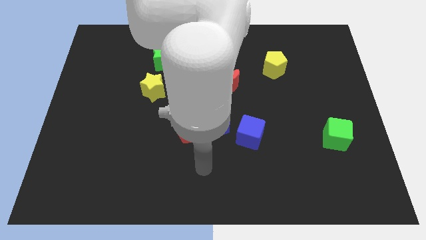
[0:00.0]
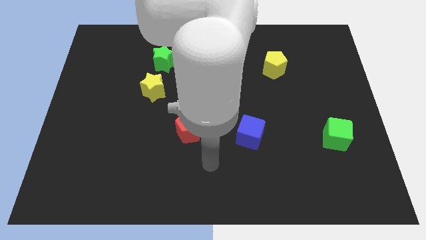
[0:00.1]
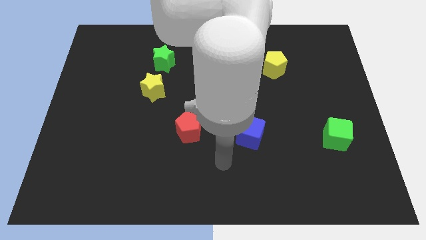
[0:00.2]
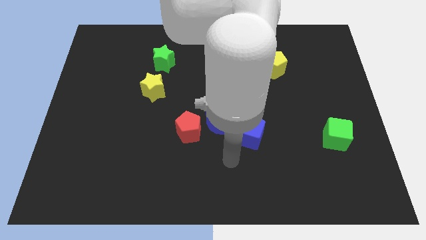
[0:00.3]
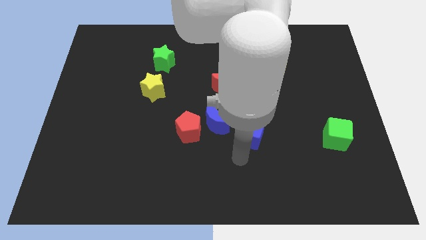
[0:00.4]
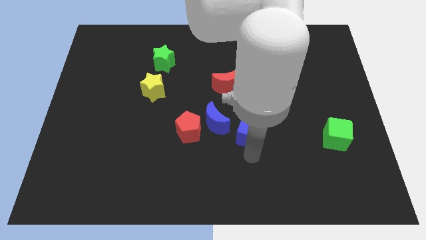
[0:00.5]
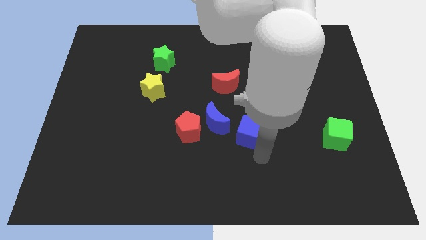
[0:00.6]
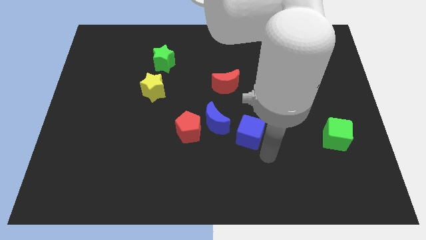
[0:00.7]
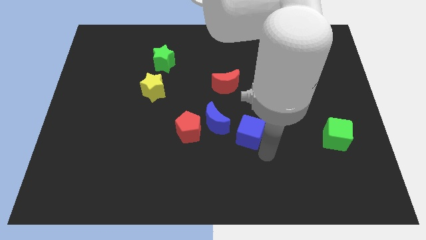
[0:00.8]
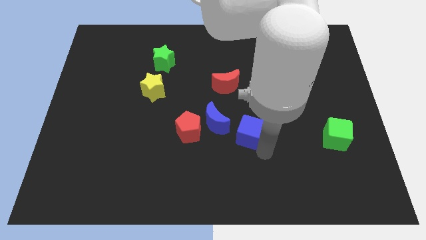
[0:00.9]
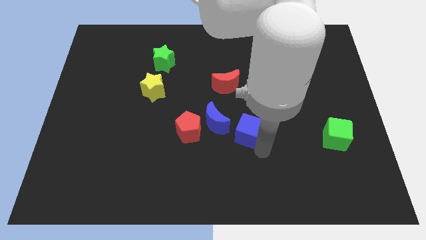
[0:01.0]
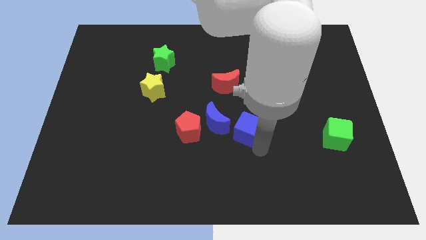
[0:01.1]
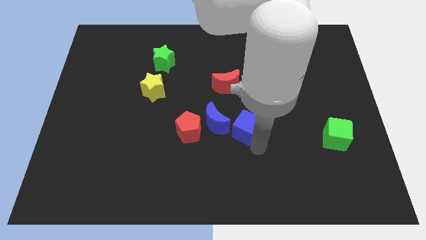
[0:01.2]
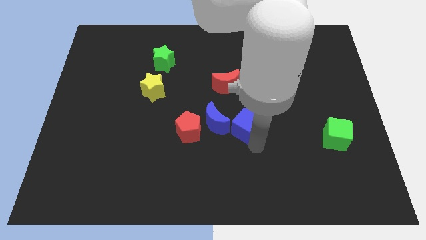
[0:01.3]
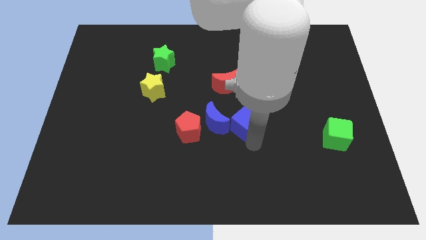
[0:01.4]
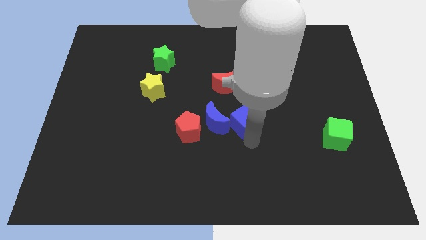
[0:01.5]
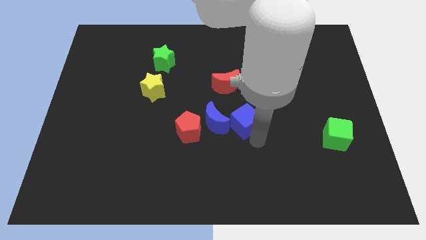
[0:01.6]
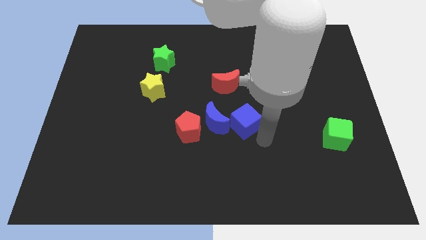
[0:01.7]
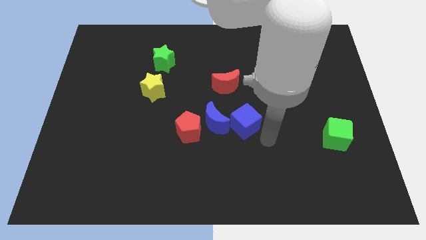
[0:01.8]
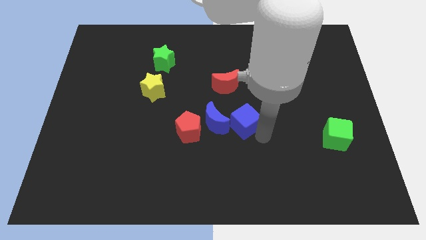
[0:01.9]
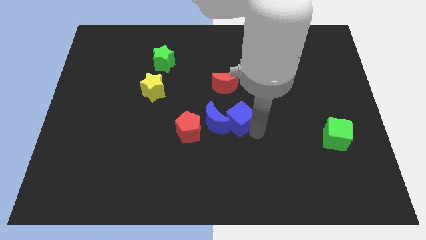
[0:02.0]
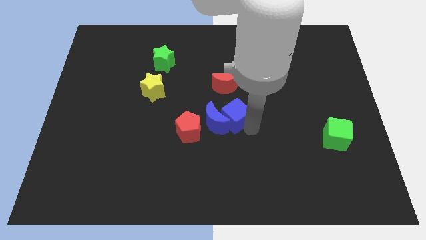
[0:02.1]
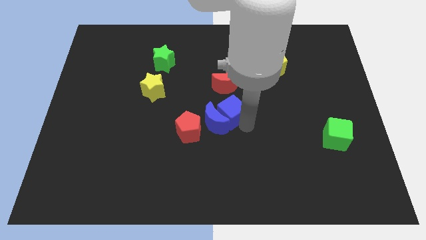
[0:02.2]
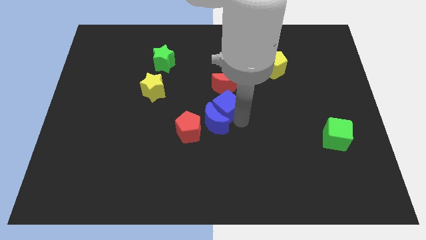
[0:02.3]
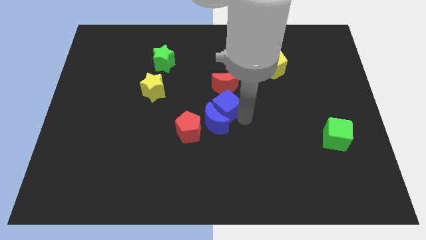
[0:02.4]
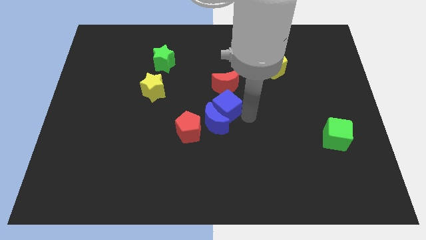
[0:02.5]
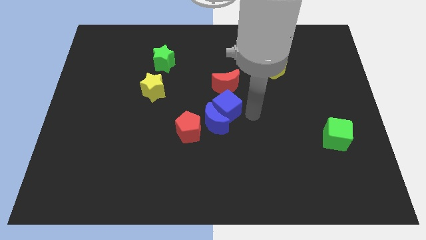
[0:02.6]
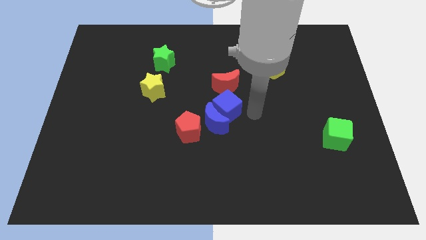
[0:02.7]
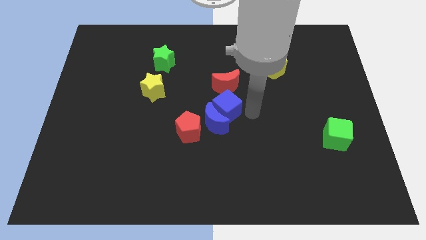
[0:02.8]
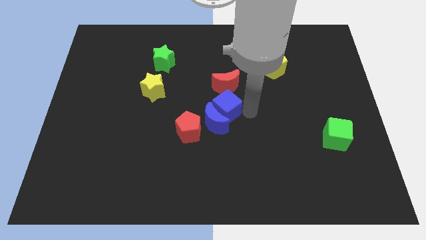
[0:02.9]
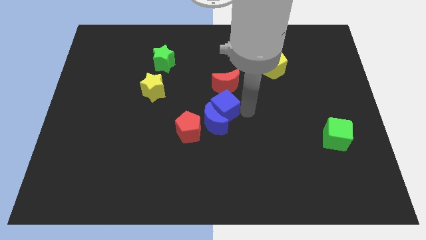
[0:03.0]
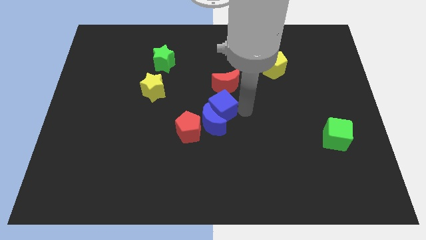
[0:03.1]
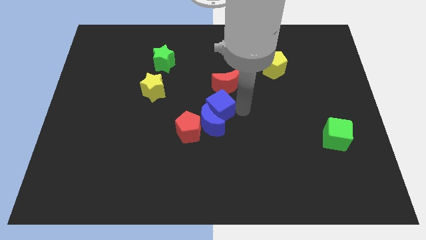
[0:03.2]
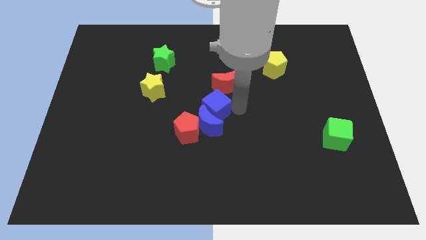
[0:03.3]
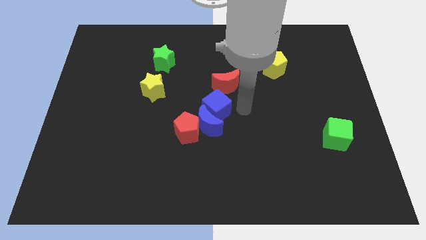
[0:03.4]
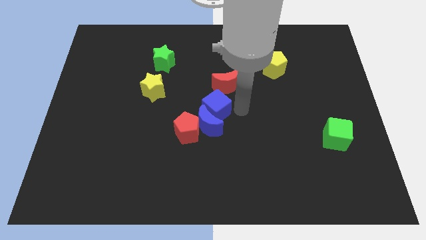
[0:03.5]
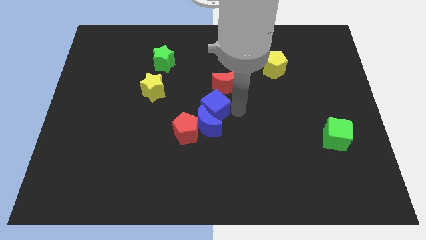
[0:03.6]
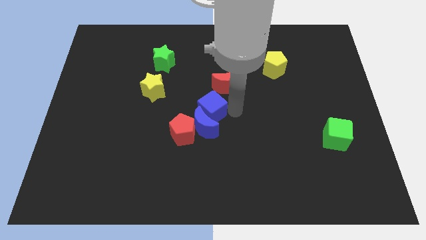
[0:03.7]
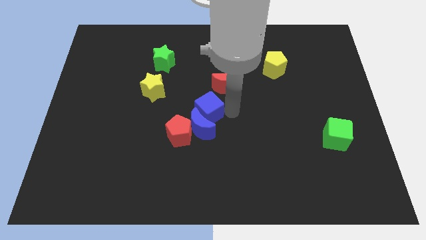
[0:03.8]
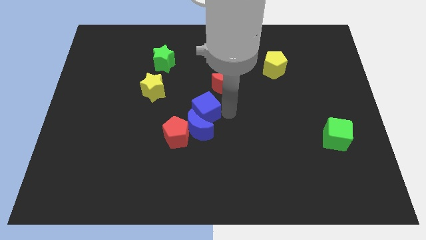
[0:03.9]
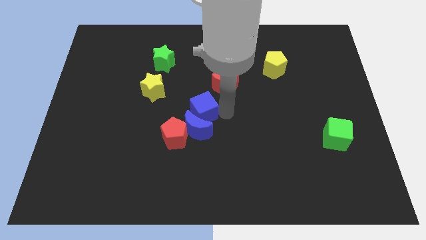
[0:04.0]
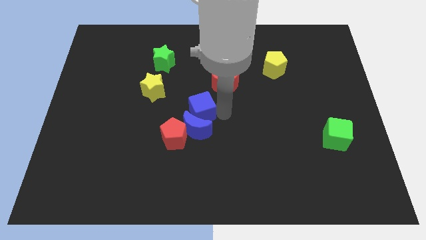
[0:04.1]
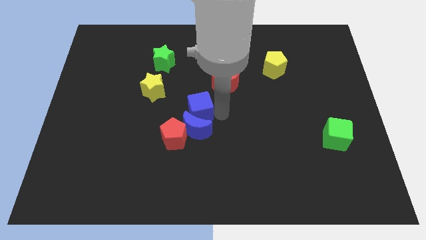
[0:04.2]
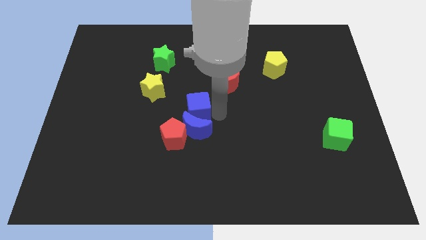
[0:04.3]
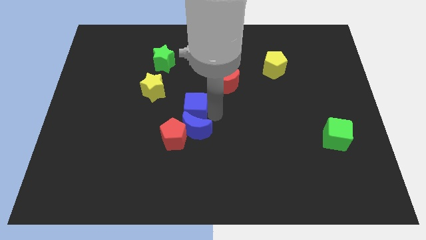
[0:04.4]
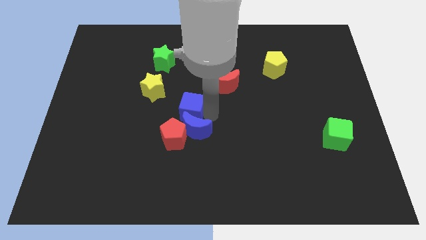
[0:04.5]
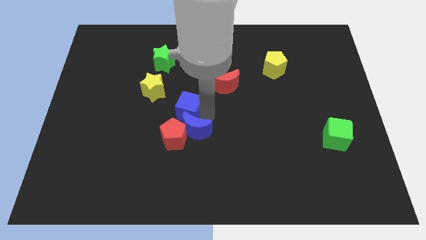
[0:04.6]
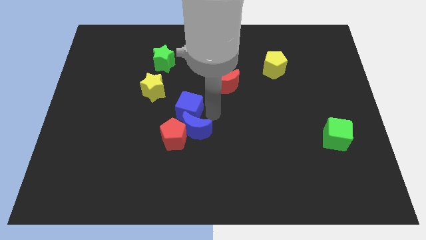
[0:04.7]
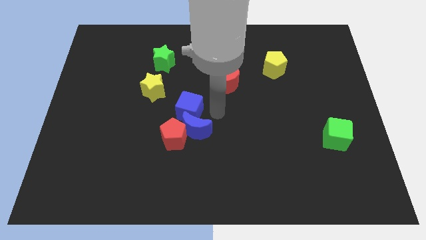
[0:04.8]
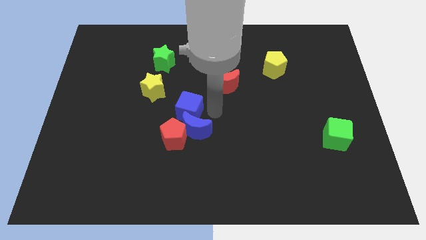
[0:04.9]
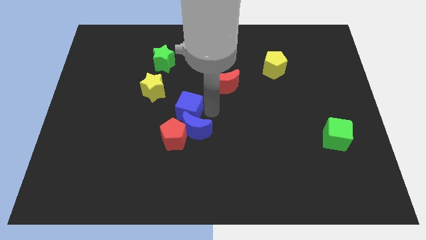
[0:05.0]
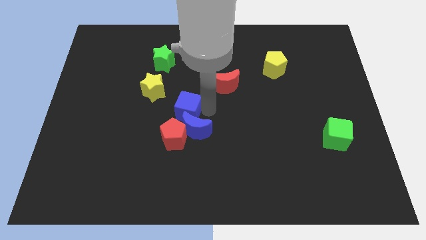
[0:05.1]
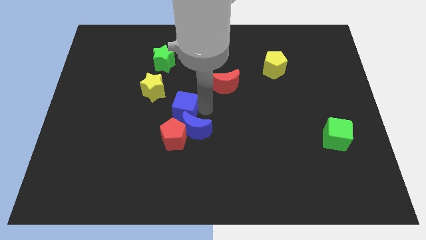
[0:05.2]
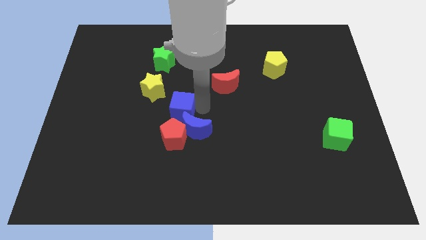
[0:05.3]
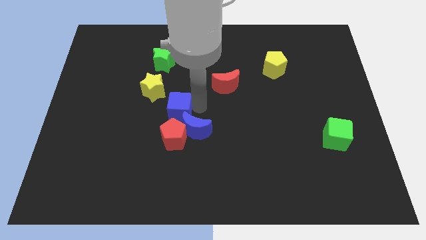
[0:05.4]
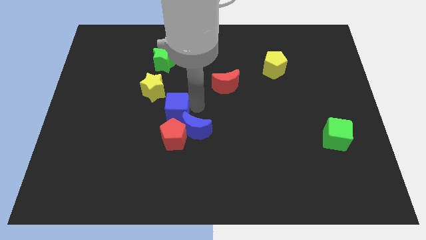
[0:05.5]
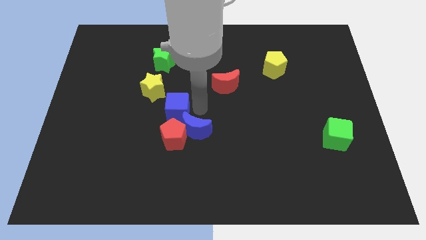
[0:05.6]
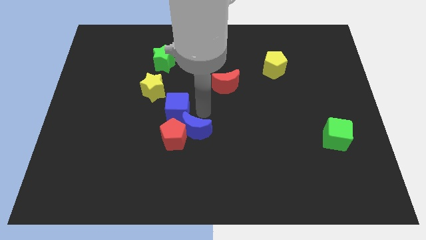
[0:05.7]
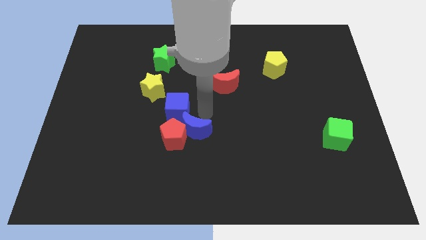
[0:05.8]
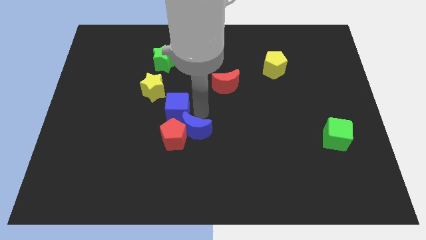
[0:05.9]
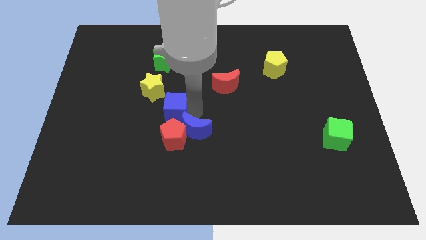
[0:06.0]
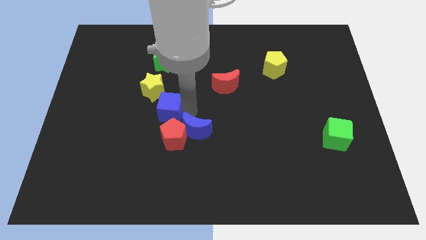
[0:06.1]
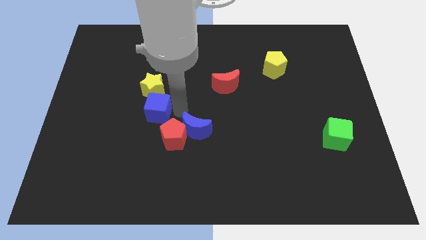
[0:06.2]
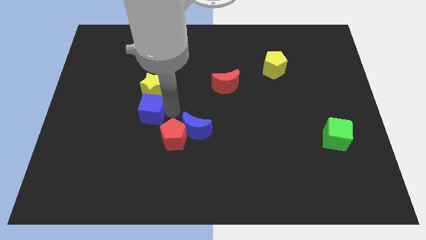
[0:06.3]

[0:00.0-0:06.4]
push the blue cube diagonally down and to the left of the yellow star

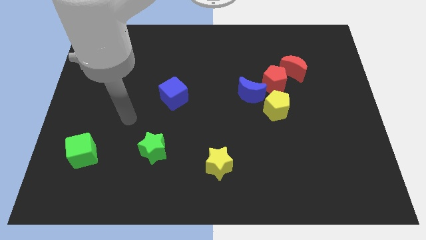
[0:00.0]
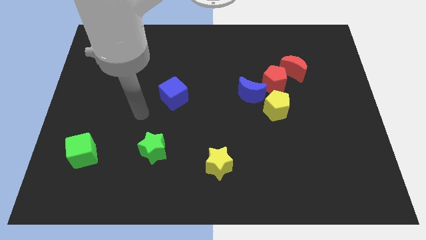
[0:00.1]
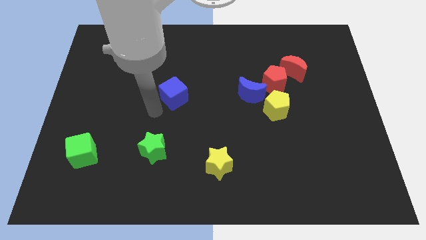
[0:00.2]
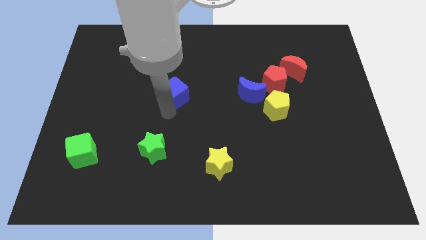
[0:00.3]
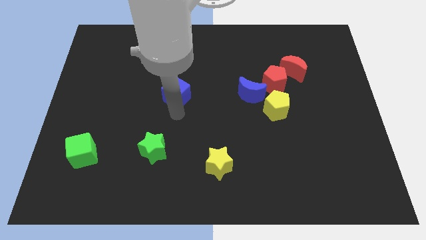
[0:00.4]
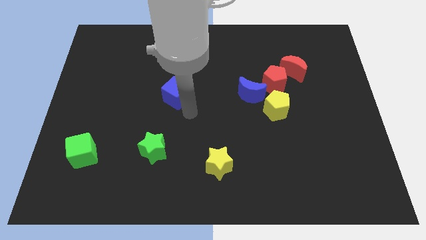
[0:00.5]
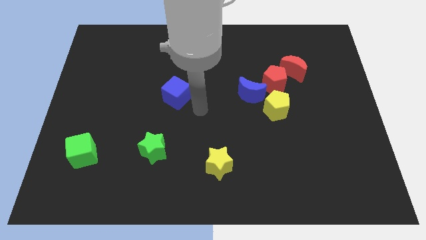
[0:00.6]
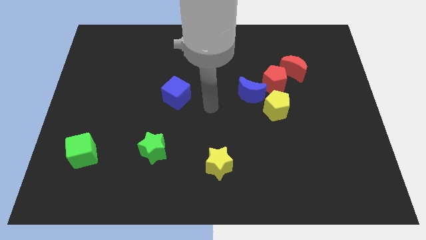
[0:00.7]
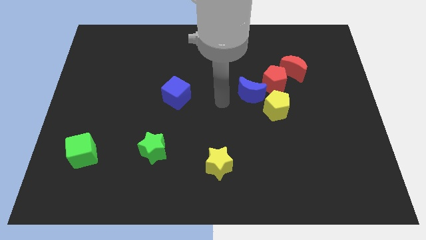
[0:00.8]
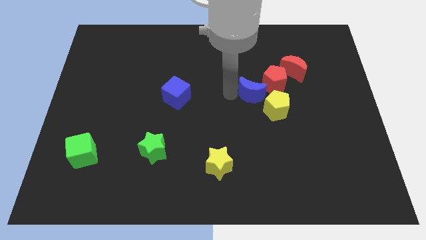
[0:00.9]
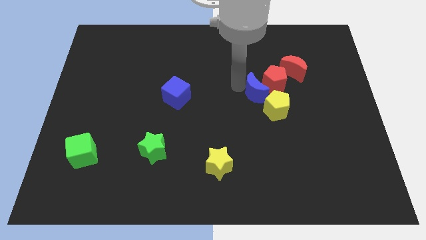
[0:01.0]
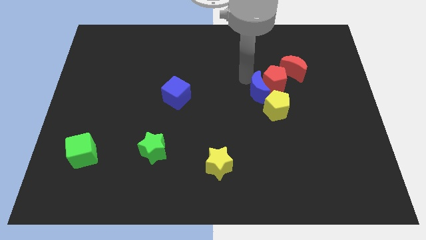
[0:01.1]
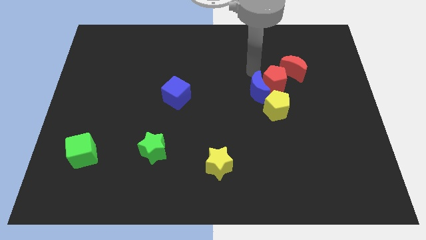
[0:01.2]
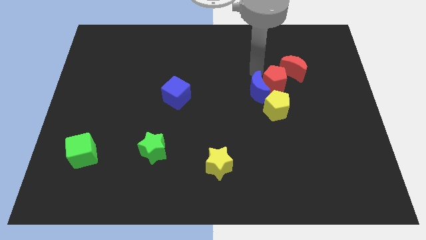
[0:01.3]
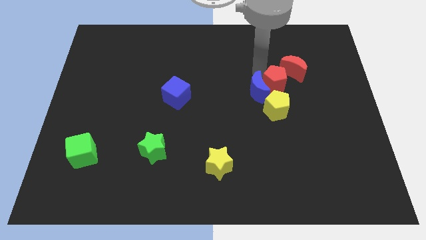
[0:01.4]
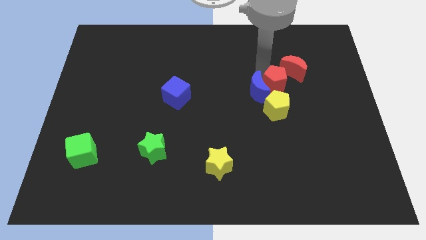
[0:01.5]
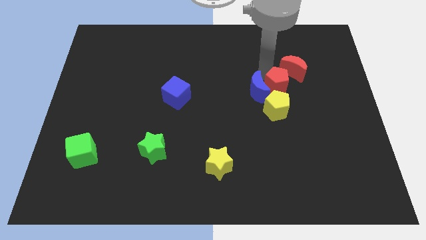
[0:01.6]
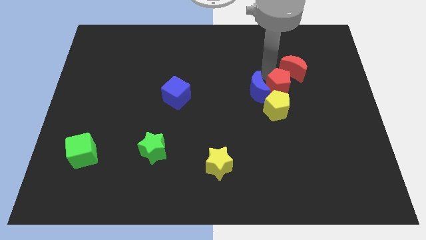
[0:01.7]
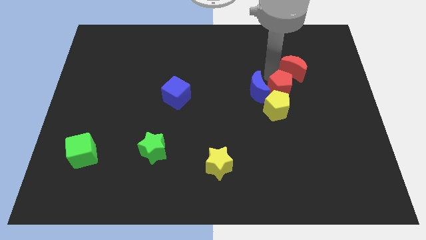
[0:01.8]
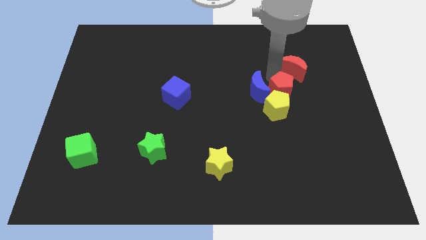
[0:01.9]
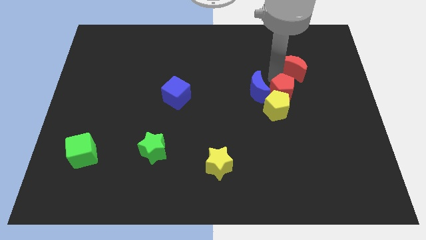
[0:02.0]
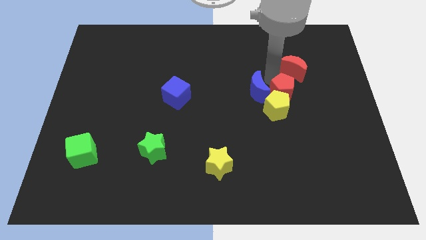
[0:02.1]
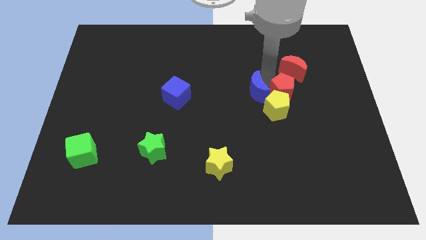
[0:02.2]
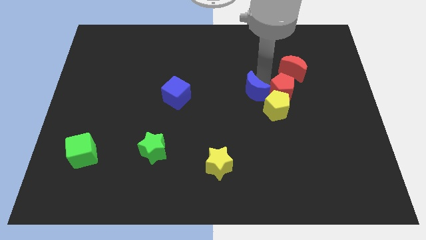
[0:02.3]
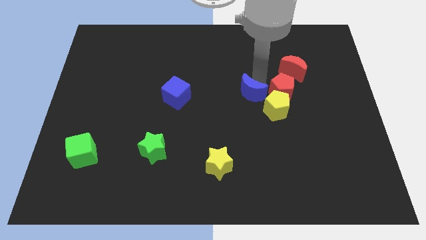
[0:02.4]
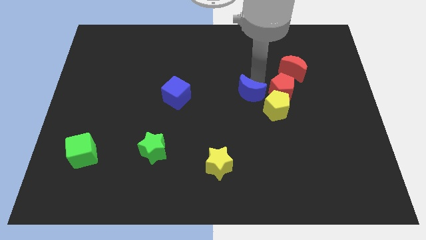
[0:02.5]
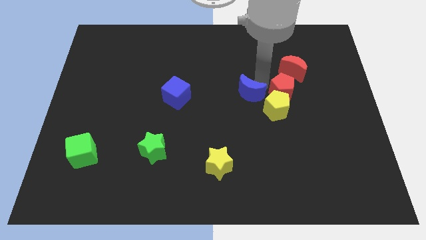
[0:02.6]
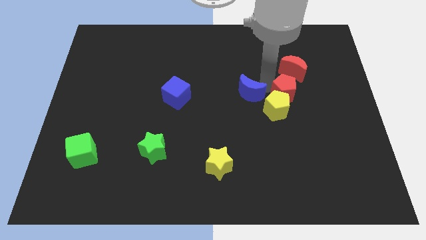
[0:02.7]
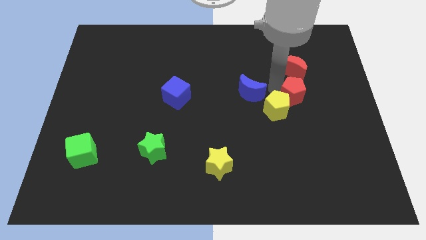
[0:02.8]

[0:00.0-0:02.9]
put the red pentagon to the right side of the yellow pentagon
